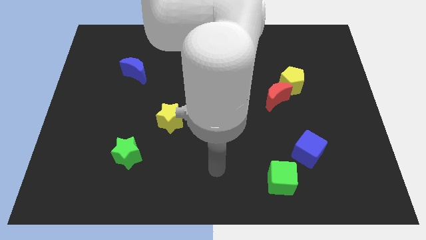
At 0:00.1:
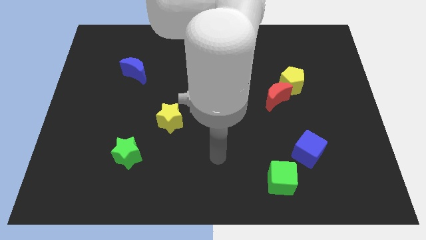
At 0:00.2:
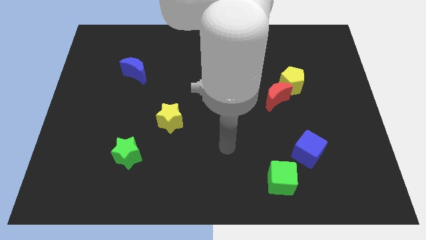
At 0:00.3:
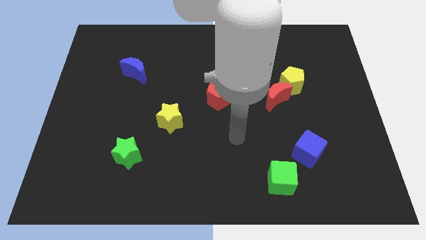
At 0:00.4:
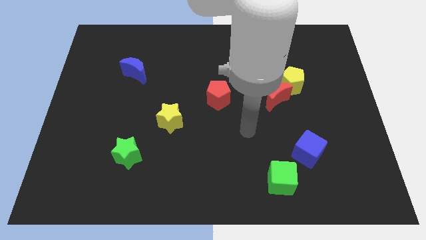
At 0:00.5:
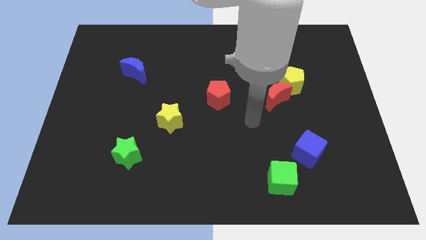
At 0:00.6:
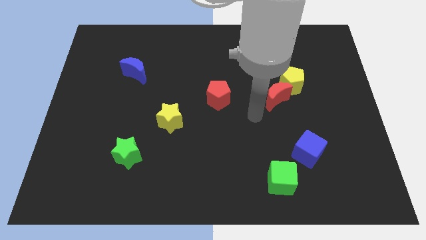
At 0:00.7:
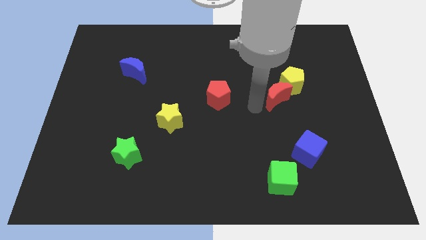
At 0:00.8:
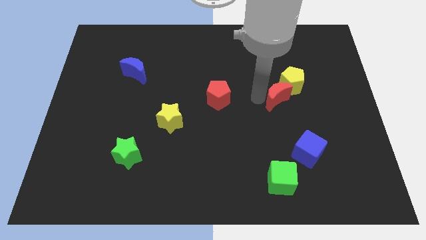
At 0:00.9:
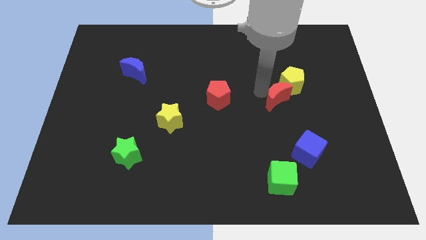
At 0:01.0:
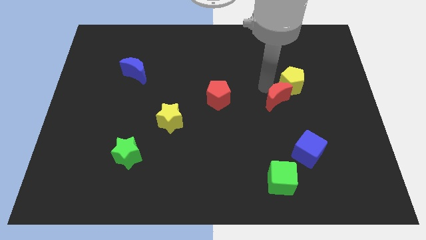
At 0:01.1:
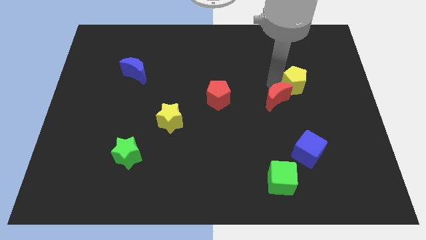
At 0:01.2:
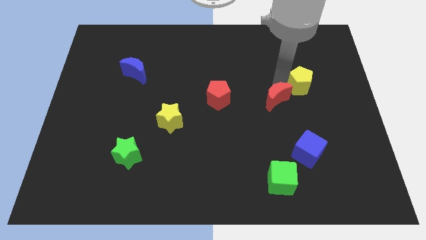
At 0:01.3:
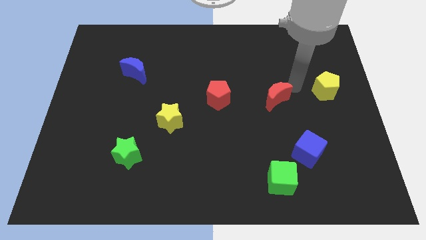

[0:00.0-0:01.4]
separate the red moon from the yellow pentagon

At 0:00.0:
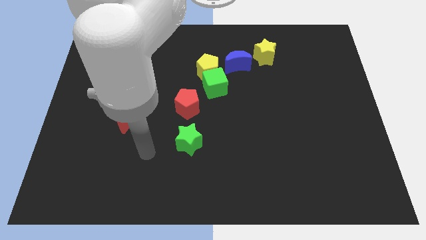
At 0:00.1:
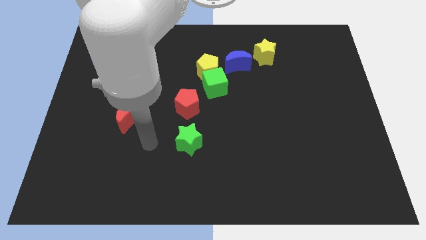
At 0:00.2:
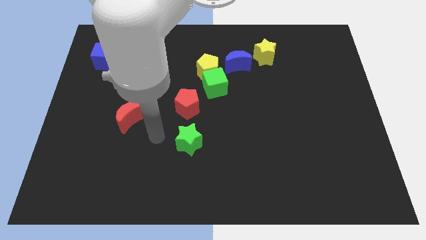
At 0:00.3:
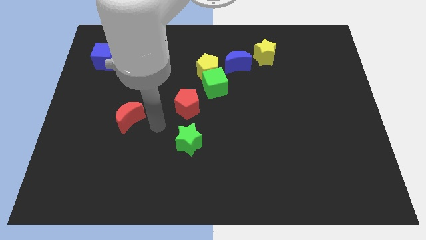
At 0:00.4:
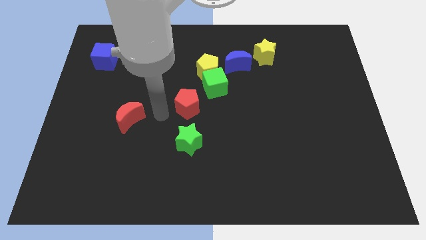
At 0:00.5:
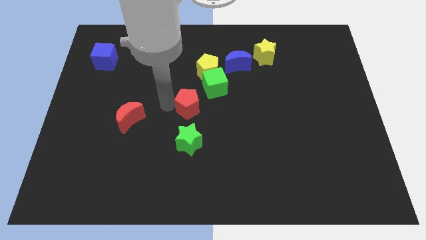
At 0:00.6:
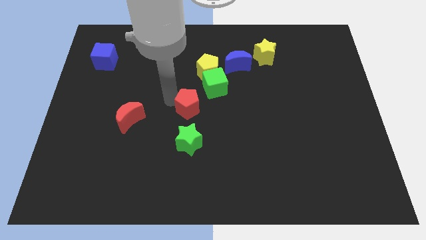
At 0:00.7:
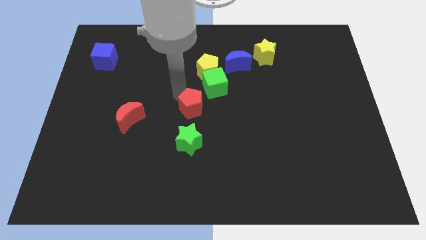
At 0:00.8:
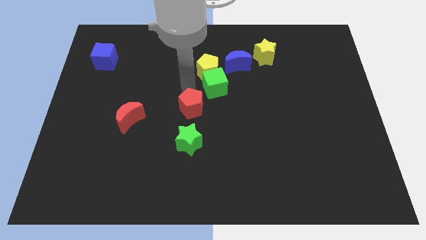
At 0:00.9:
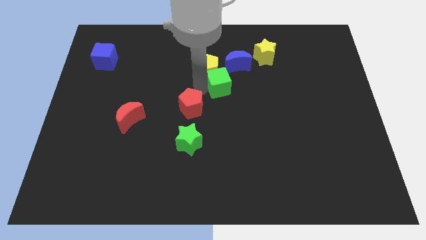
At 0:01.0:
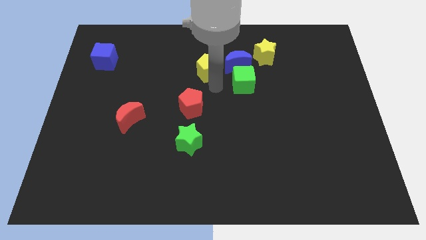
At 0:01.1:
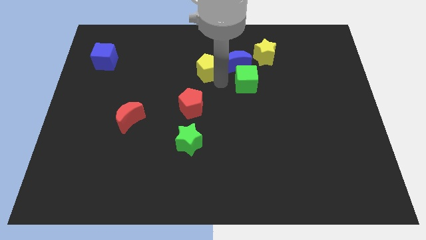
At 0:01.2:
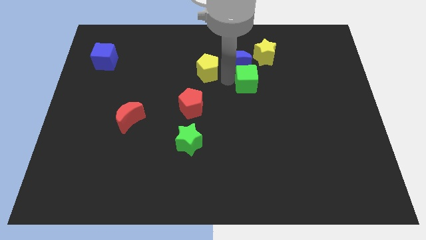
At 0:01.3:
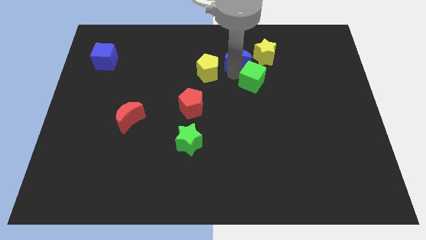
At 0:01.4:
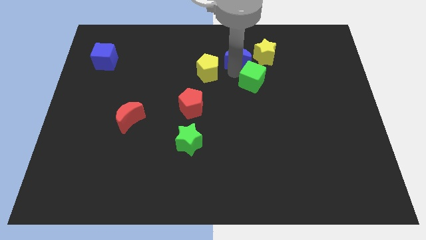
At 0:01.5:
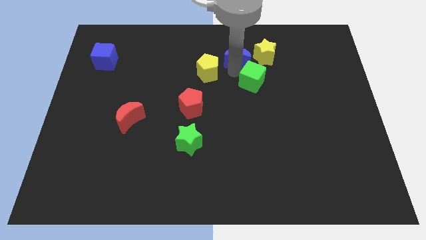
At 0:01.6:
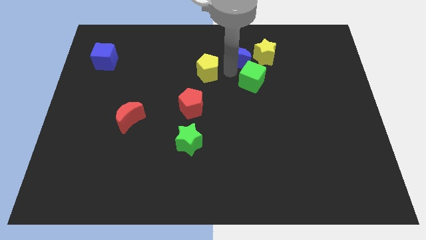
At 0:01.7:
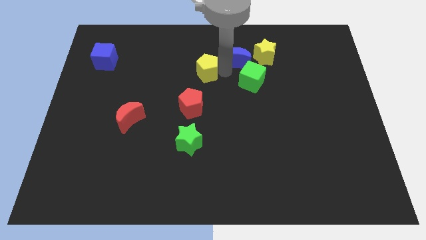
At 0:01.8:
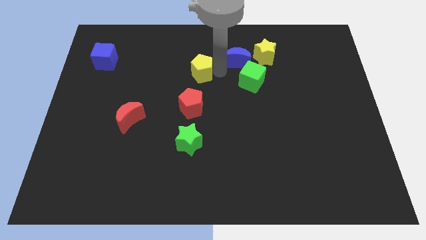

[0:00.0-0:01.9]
move the yellow pentagon away from the green cube and blue moon

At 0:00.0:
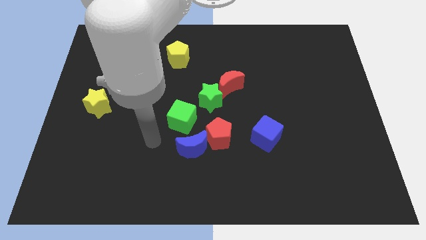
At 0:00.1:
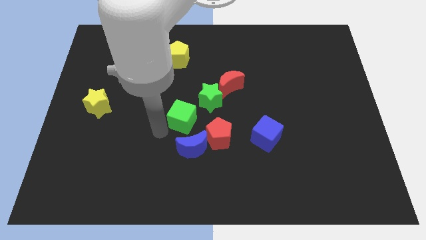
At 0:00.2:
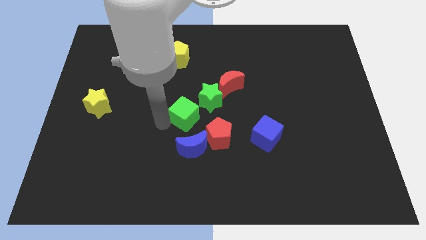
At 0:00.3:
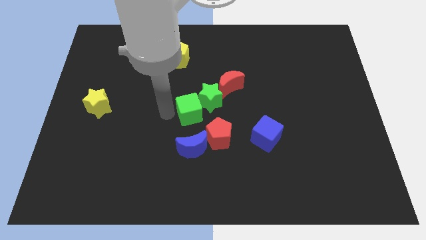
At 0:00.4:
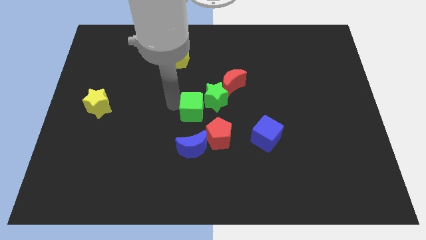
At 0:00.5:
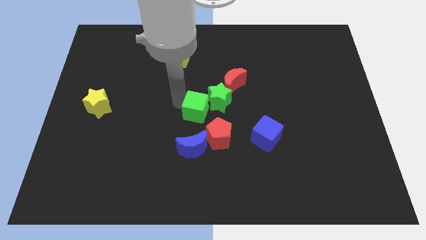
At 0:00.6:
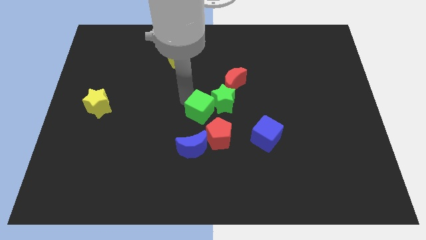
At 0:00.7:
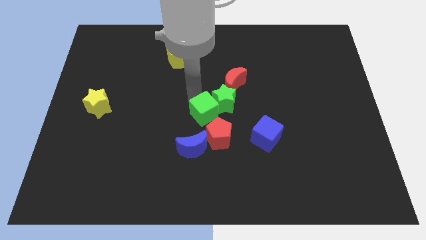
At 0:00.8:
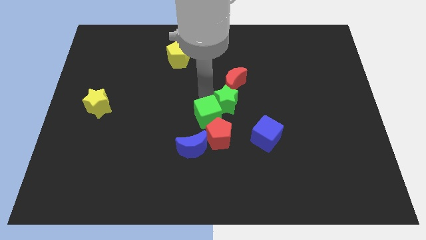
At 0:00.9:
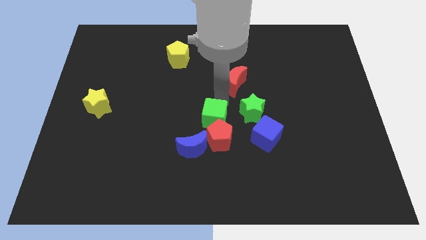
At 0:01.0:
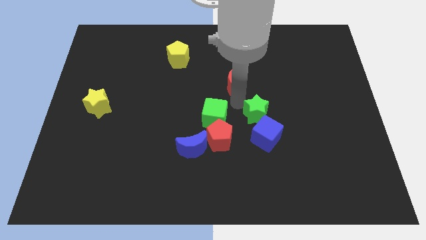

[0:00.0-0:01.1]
pull the red moon apart from the green star

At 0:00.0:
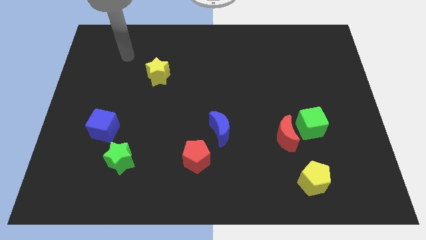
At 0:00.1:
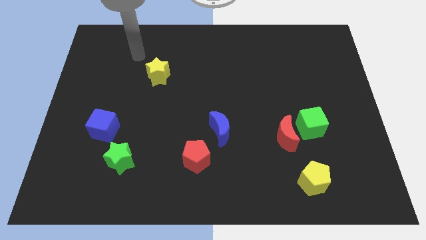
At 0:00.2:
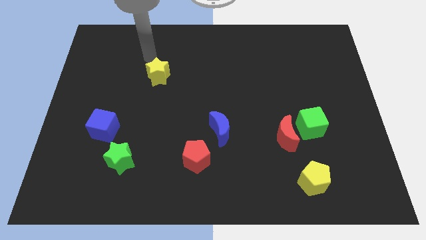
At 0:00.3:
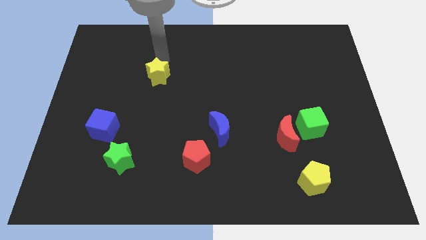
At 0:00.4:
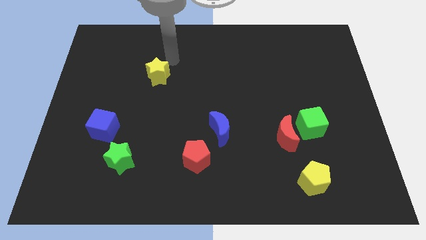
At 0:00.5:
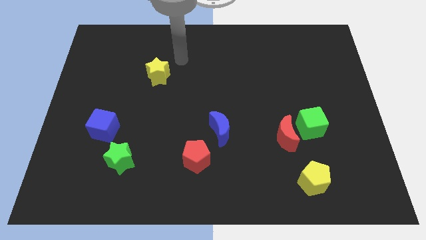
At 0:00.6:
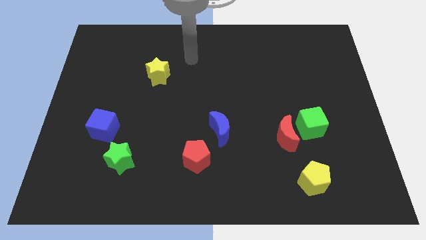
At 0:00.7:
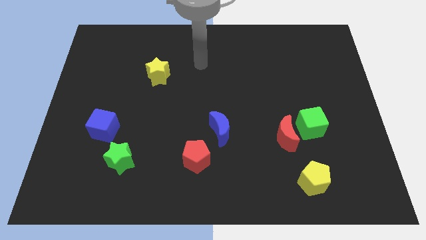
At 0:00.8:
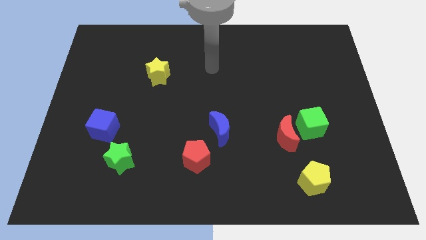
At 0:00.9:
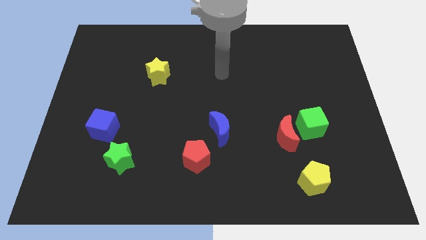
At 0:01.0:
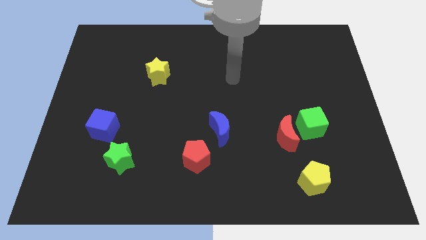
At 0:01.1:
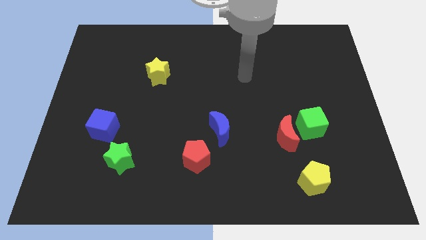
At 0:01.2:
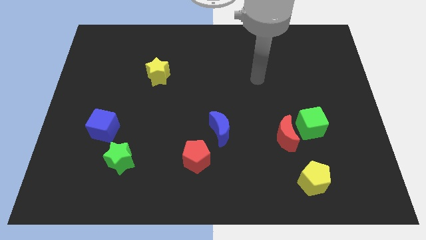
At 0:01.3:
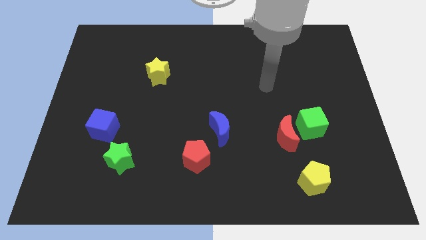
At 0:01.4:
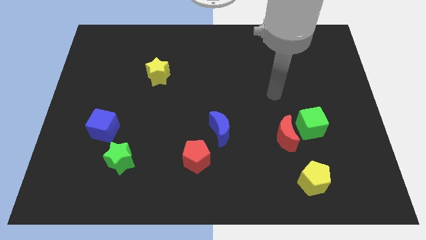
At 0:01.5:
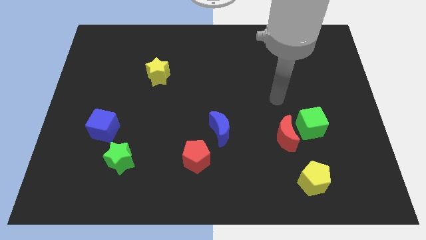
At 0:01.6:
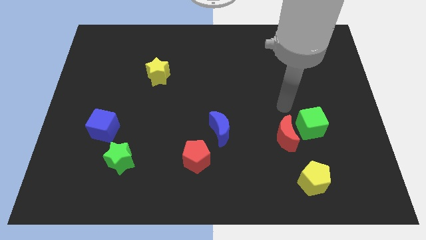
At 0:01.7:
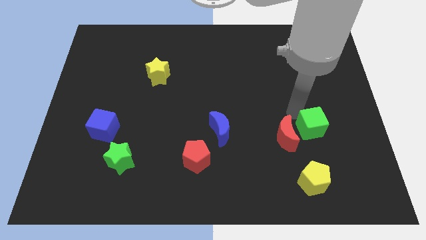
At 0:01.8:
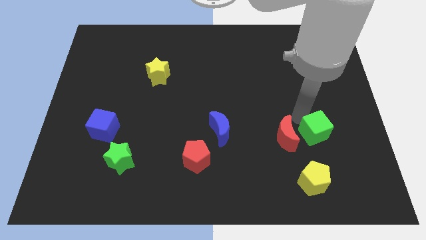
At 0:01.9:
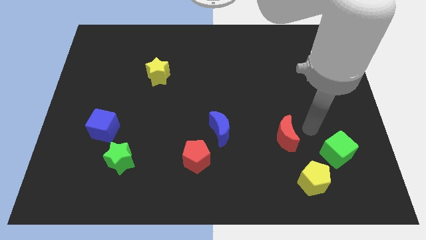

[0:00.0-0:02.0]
pull the red moon apart from the green cube

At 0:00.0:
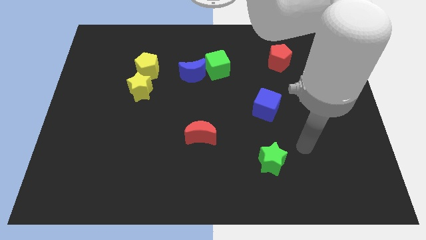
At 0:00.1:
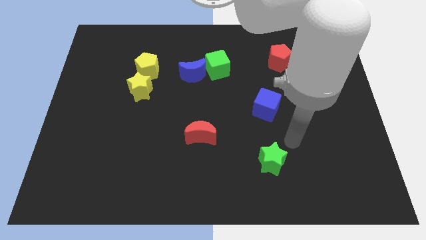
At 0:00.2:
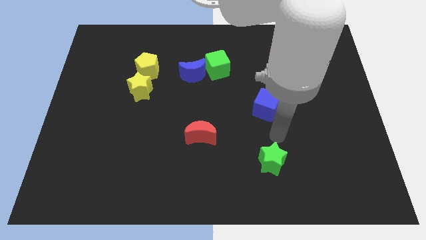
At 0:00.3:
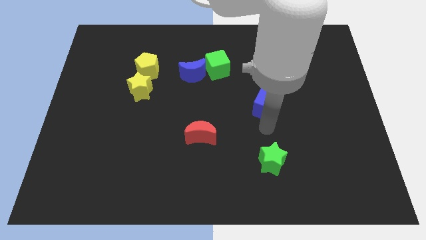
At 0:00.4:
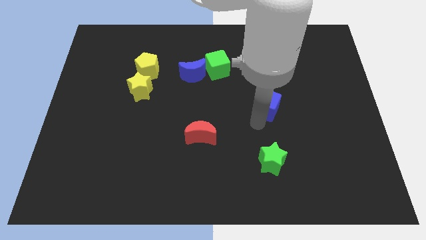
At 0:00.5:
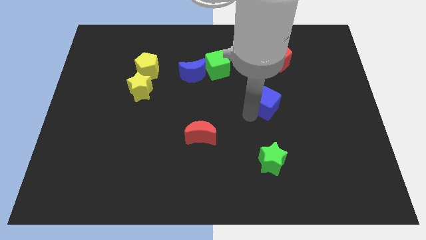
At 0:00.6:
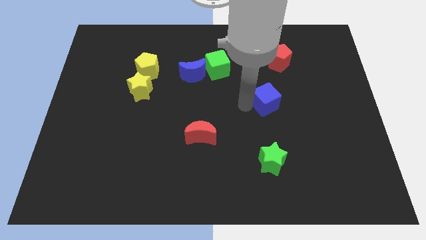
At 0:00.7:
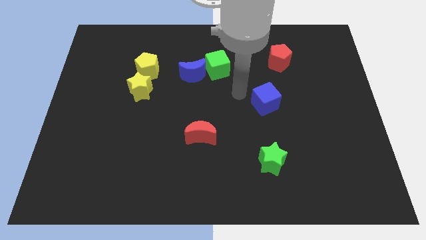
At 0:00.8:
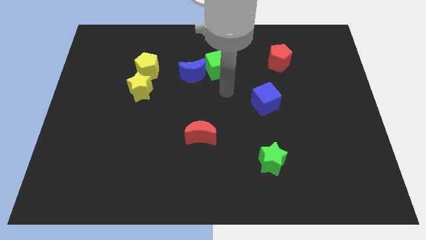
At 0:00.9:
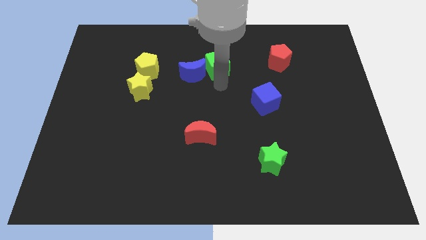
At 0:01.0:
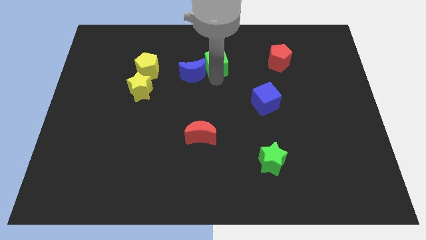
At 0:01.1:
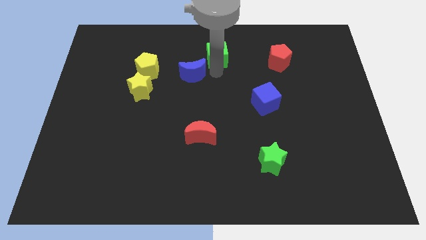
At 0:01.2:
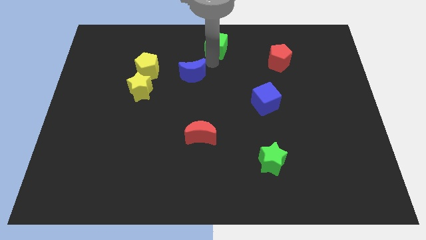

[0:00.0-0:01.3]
move the blue moon away from the green cube

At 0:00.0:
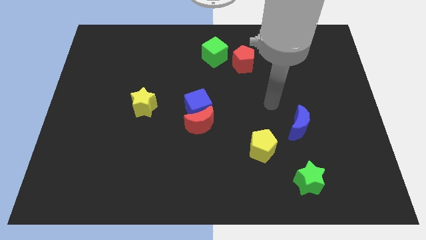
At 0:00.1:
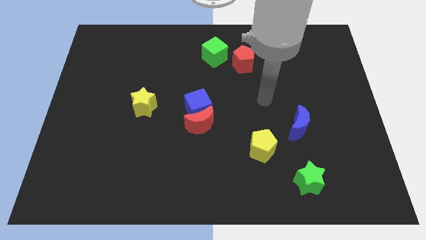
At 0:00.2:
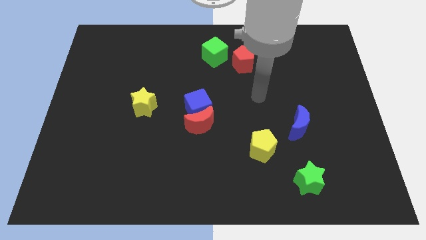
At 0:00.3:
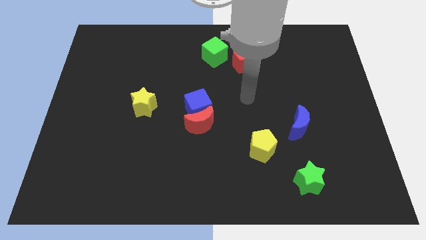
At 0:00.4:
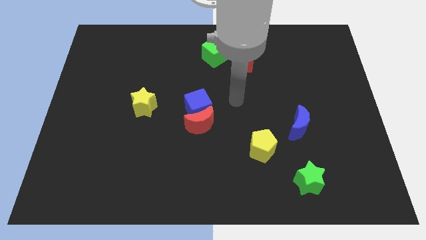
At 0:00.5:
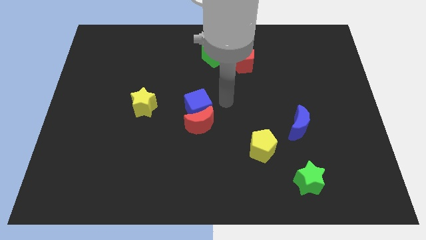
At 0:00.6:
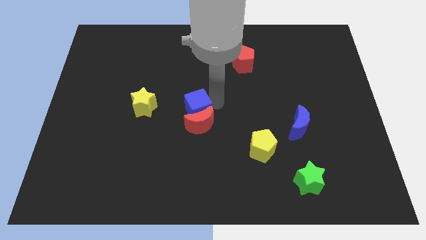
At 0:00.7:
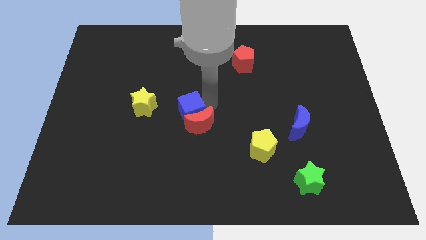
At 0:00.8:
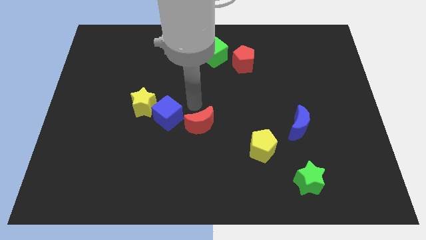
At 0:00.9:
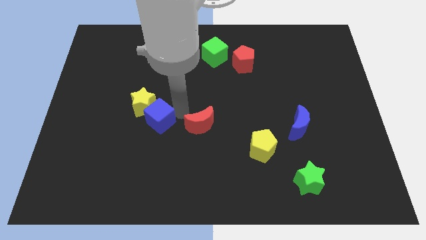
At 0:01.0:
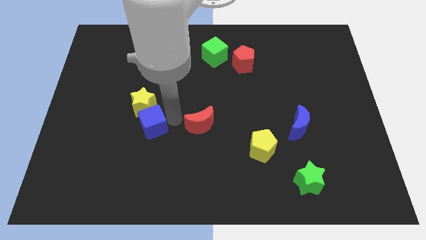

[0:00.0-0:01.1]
separate the red moon from the blue cube

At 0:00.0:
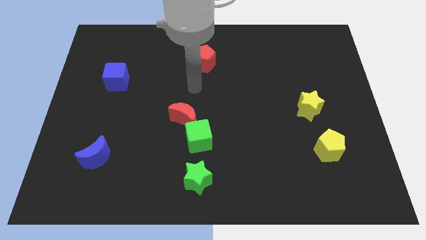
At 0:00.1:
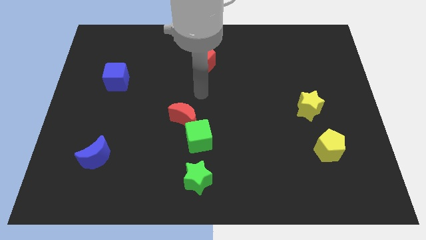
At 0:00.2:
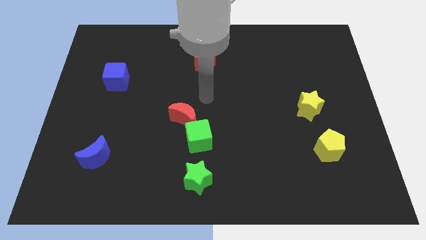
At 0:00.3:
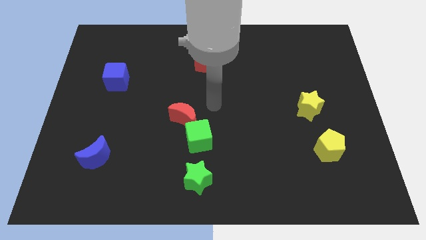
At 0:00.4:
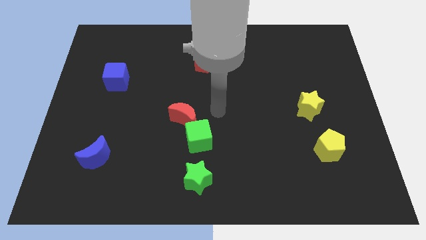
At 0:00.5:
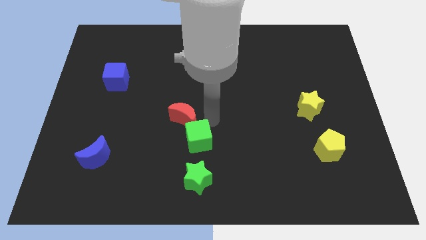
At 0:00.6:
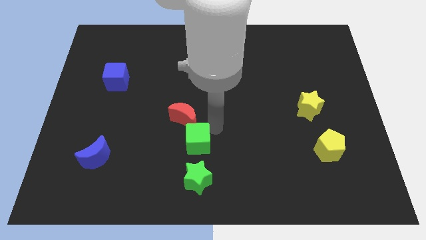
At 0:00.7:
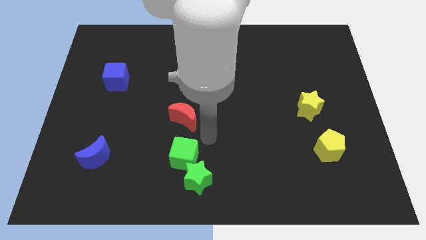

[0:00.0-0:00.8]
move the red moon away from the green cube
